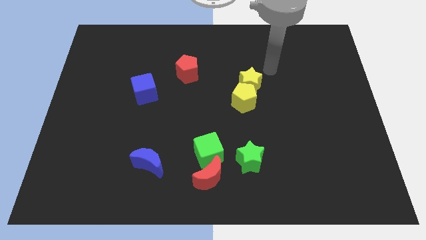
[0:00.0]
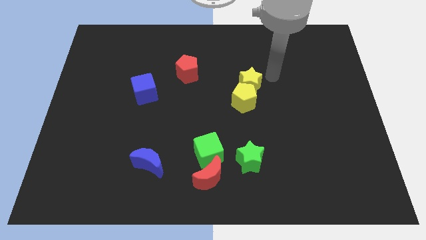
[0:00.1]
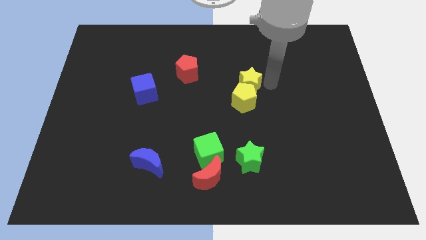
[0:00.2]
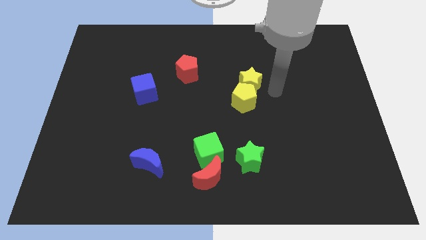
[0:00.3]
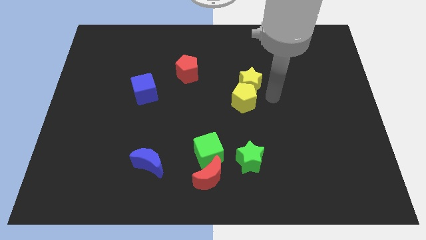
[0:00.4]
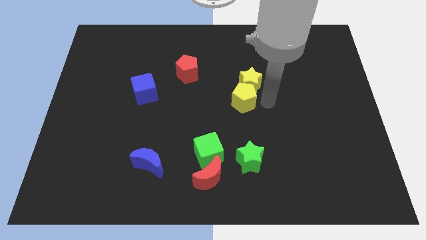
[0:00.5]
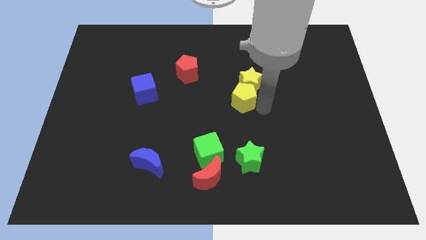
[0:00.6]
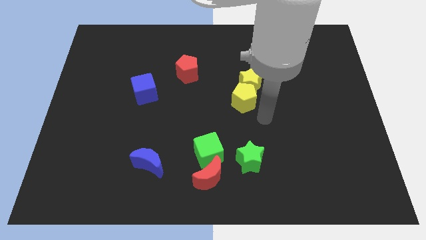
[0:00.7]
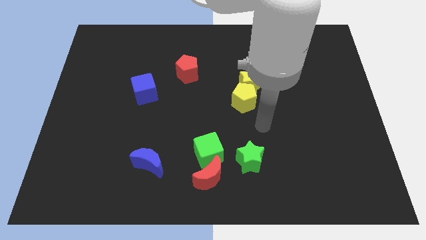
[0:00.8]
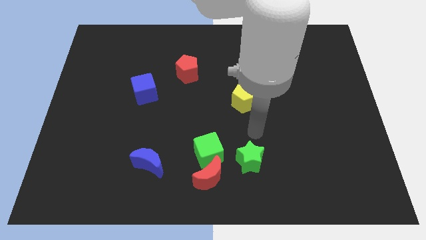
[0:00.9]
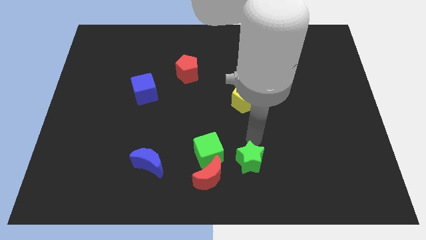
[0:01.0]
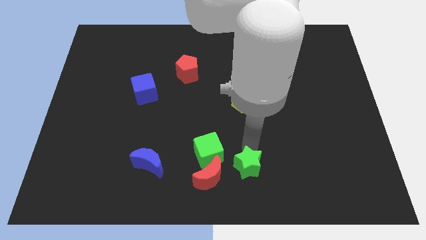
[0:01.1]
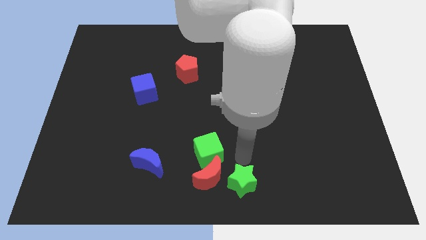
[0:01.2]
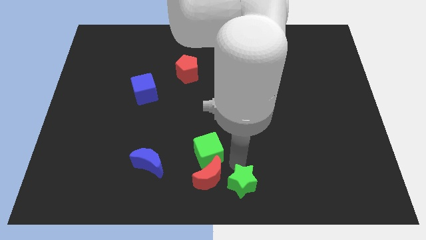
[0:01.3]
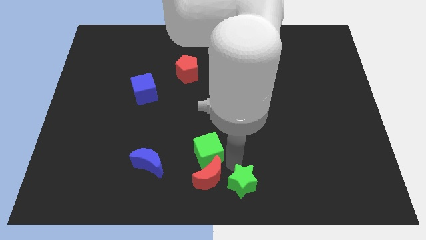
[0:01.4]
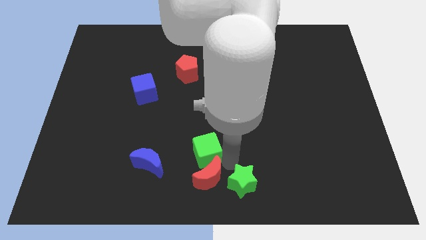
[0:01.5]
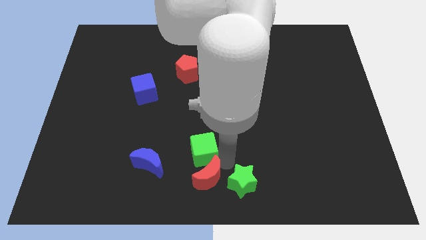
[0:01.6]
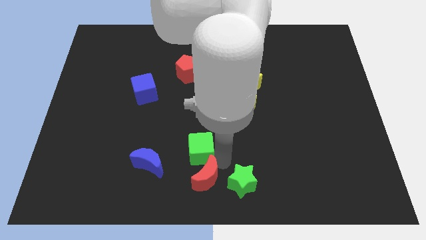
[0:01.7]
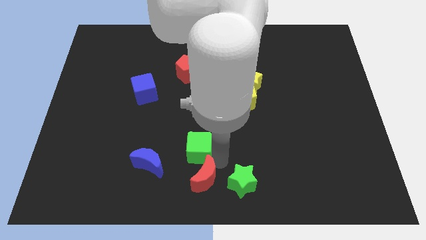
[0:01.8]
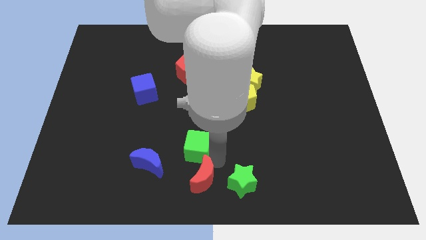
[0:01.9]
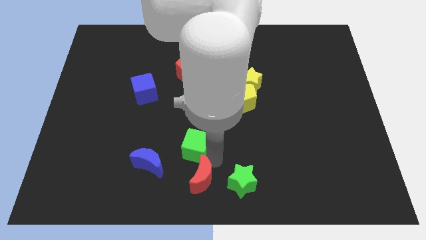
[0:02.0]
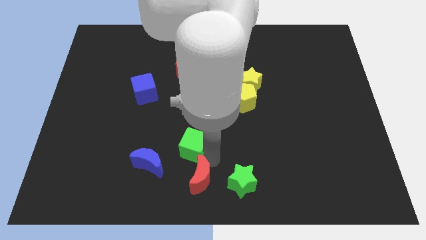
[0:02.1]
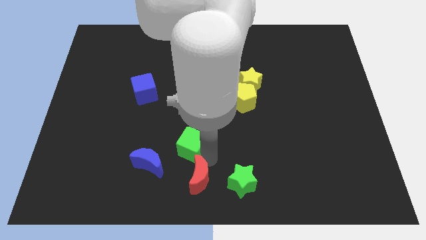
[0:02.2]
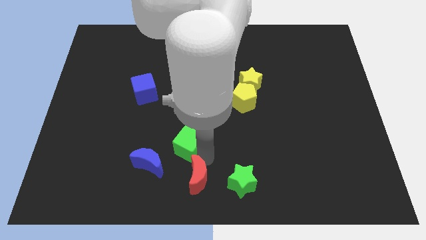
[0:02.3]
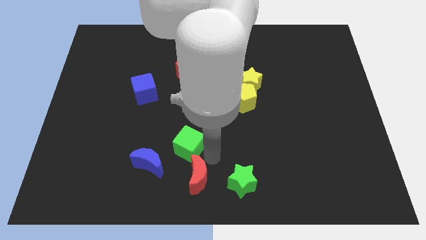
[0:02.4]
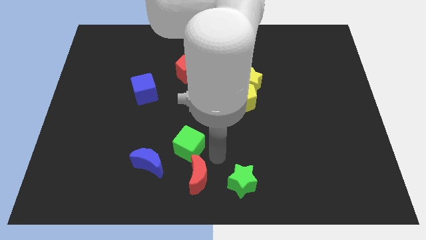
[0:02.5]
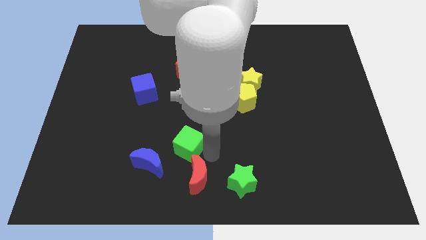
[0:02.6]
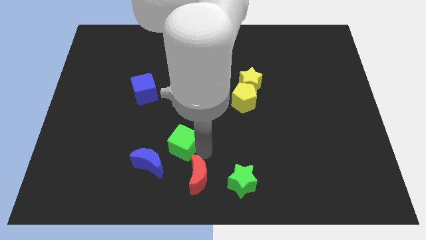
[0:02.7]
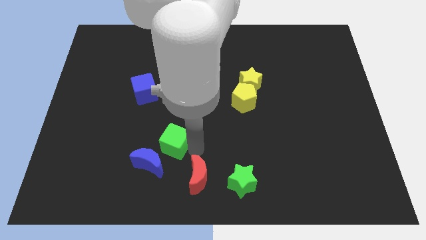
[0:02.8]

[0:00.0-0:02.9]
slightly push the green cube to the left

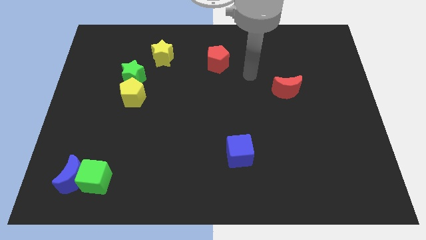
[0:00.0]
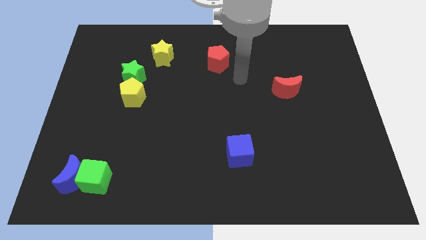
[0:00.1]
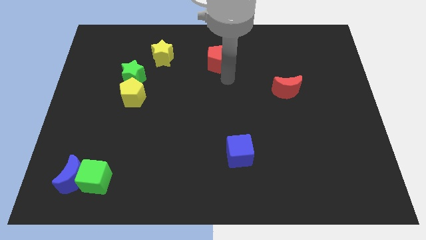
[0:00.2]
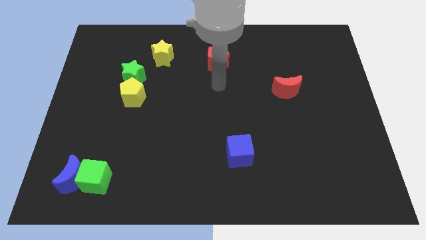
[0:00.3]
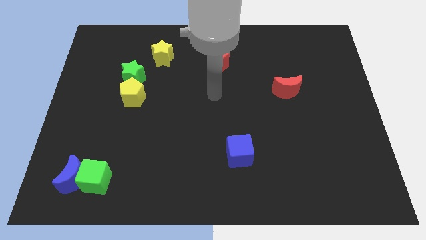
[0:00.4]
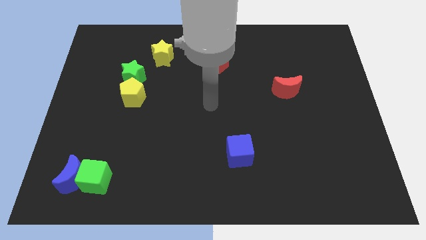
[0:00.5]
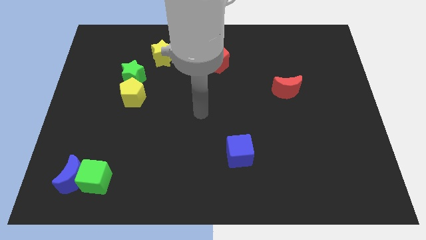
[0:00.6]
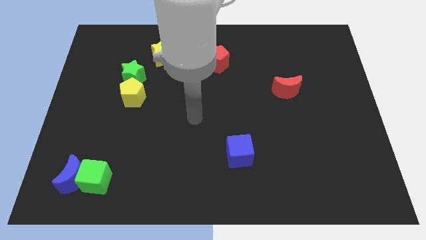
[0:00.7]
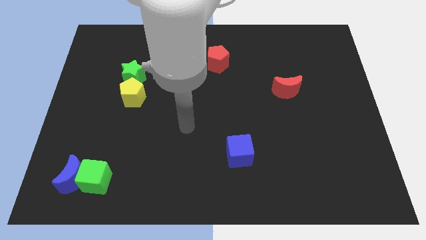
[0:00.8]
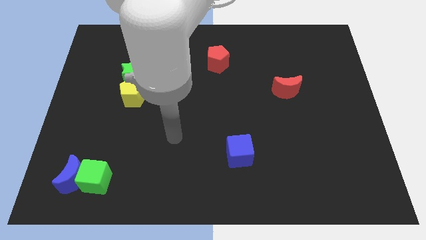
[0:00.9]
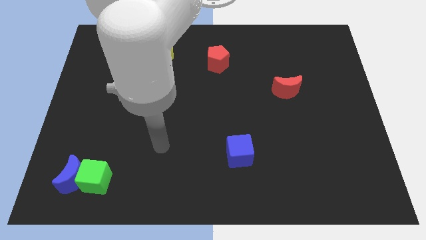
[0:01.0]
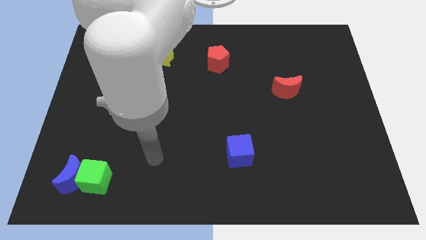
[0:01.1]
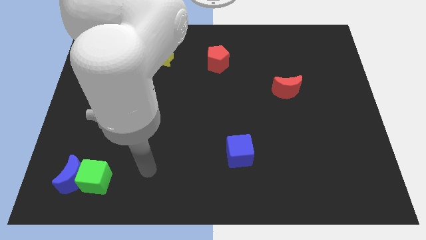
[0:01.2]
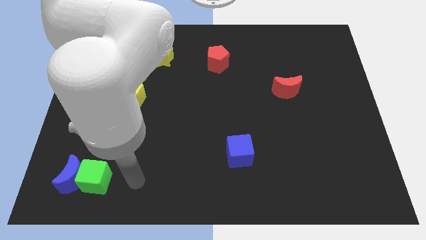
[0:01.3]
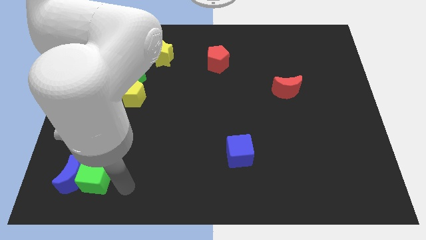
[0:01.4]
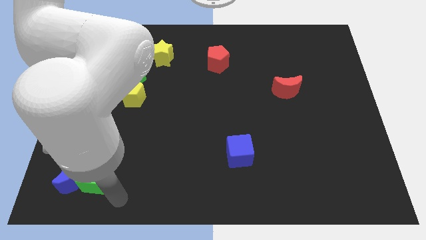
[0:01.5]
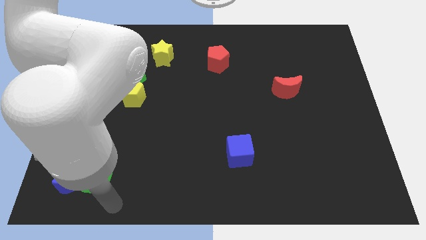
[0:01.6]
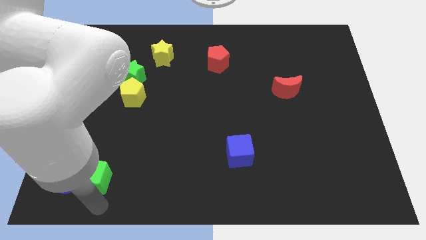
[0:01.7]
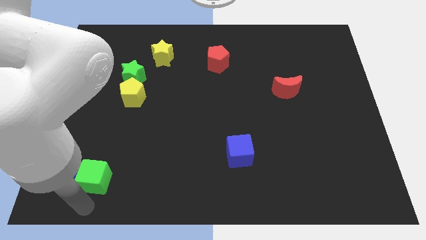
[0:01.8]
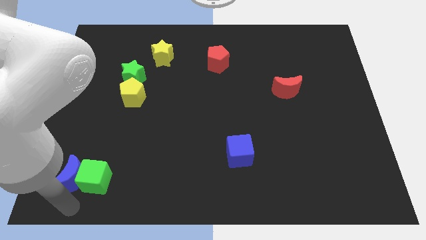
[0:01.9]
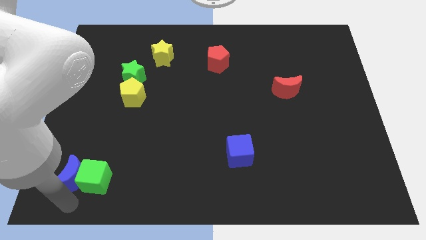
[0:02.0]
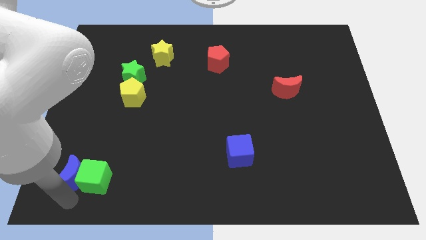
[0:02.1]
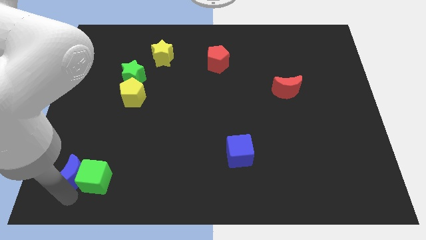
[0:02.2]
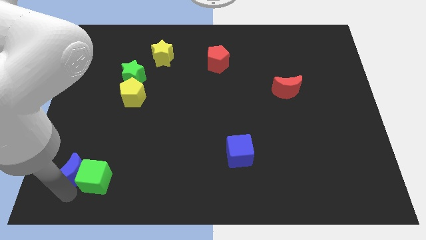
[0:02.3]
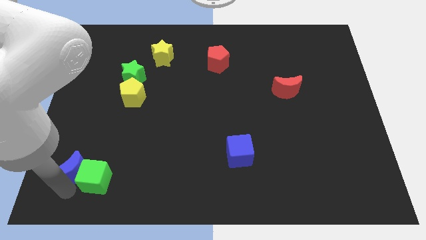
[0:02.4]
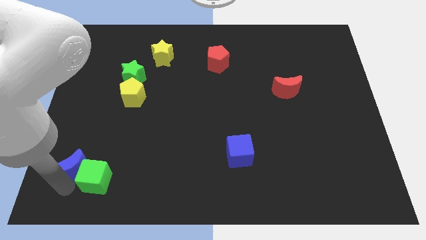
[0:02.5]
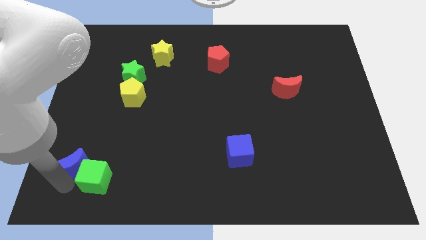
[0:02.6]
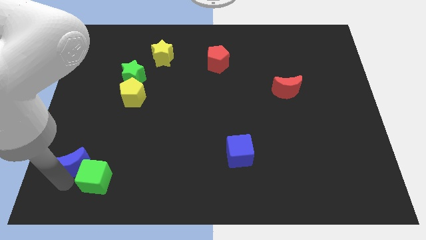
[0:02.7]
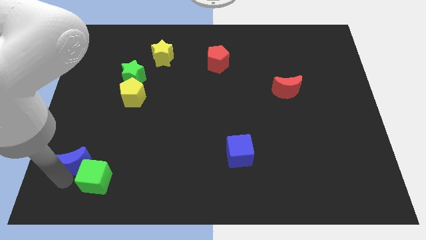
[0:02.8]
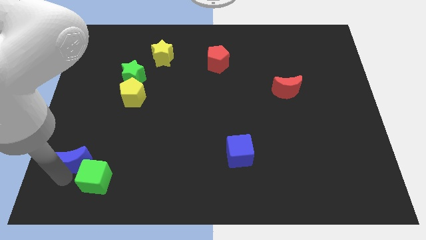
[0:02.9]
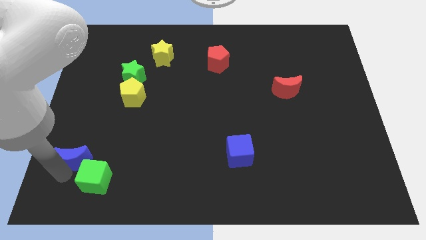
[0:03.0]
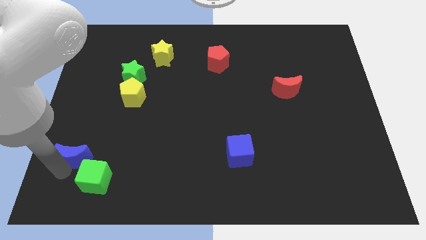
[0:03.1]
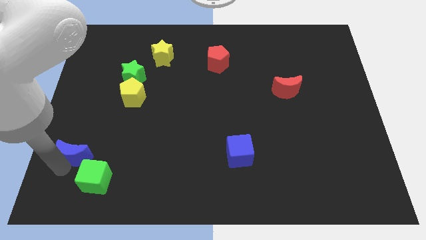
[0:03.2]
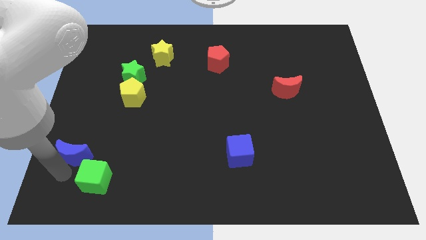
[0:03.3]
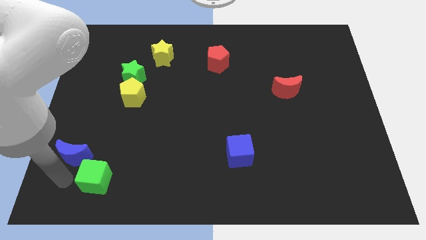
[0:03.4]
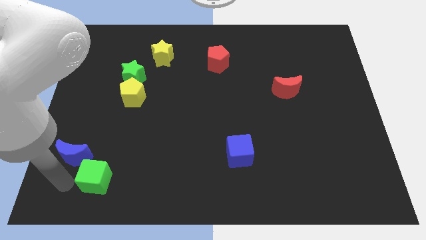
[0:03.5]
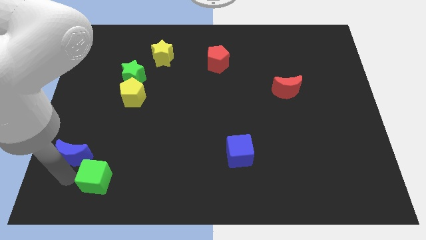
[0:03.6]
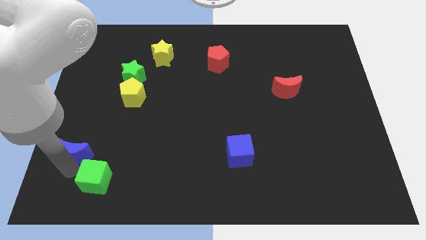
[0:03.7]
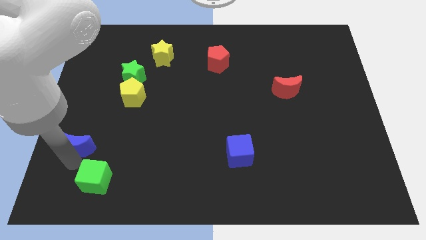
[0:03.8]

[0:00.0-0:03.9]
push the blue moon up a bit

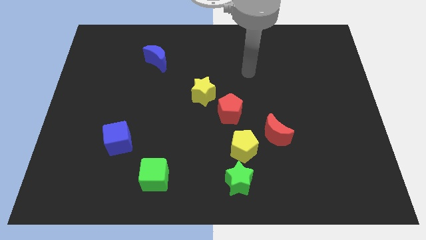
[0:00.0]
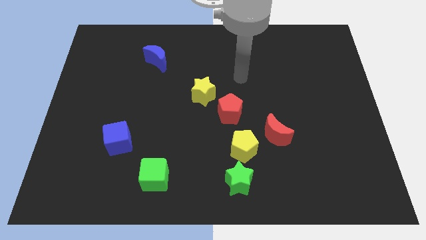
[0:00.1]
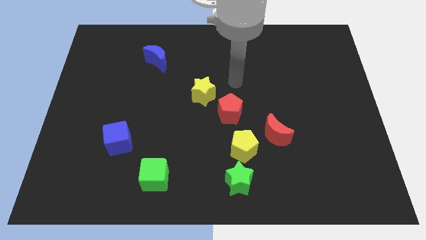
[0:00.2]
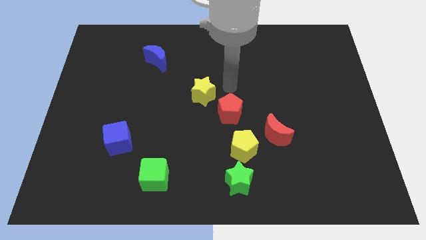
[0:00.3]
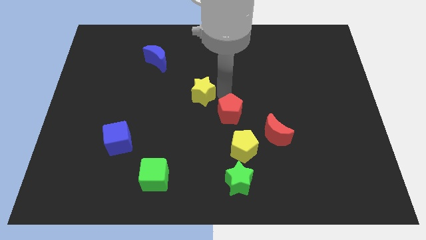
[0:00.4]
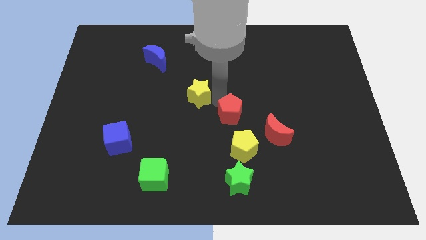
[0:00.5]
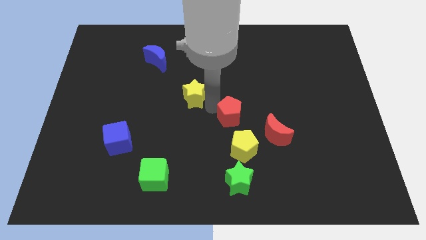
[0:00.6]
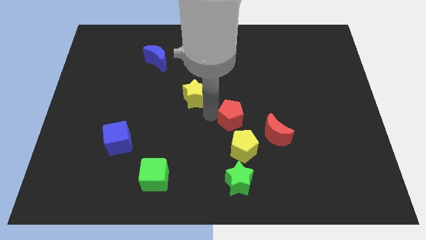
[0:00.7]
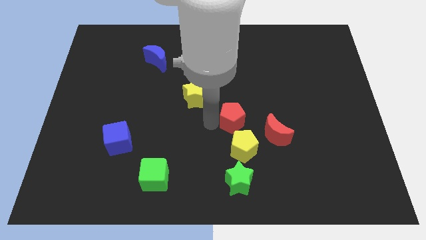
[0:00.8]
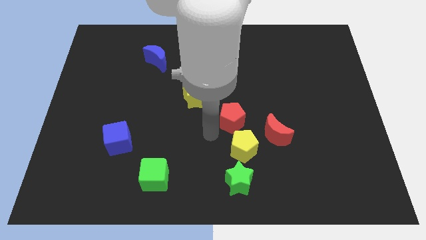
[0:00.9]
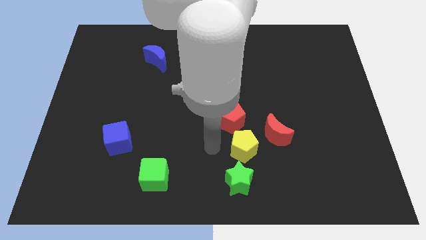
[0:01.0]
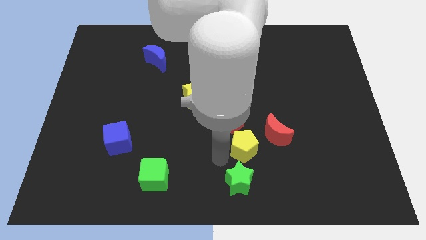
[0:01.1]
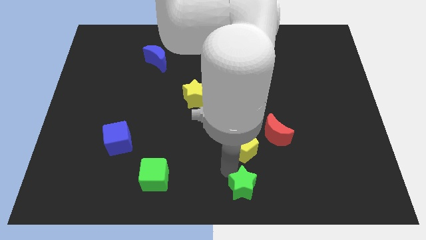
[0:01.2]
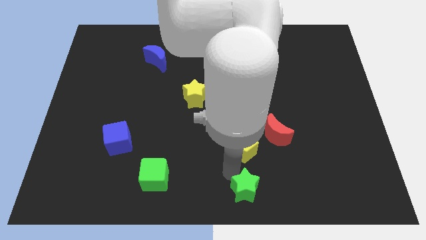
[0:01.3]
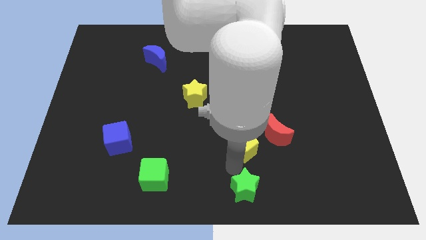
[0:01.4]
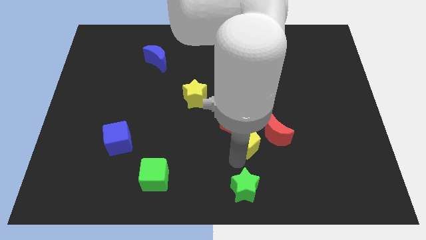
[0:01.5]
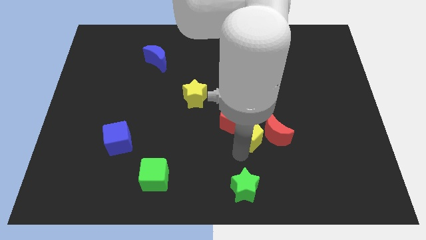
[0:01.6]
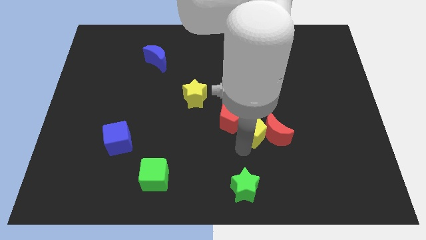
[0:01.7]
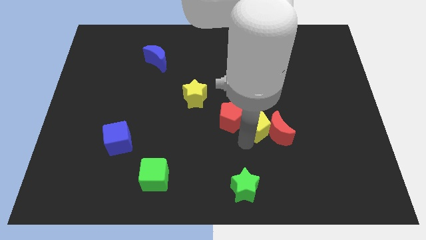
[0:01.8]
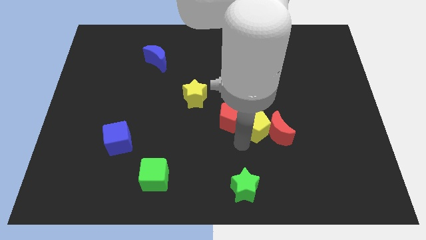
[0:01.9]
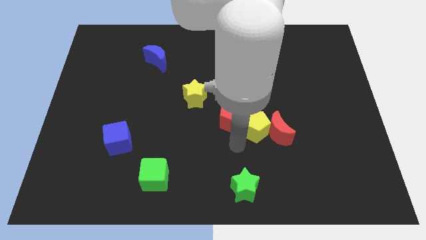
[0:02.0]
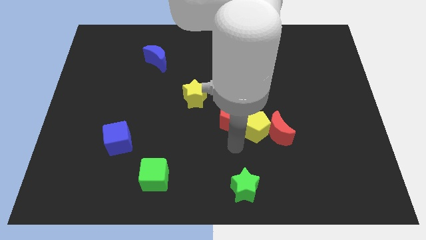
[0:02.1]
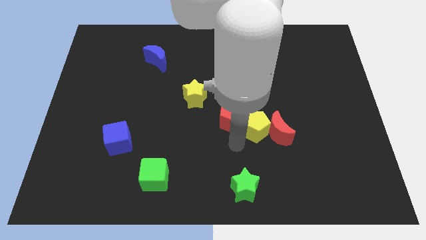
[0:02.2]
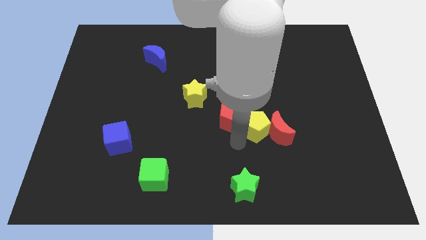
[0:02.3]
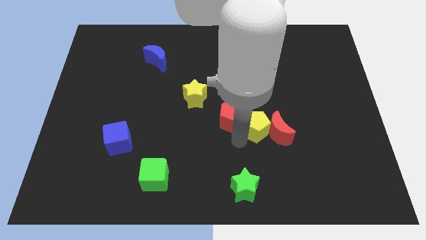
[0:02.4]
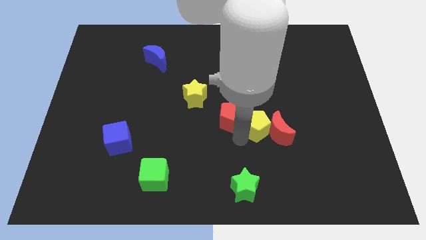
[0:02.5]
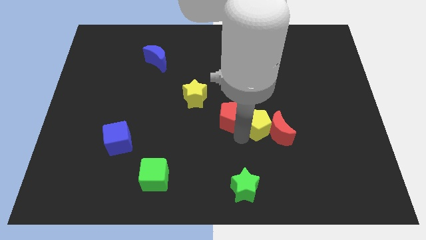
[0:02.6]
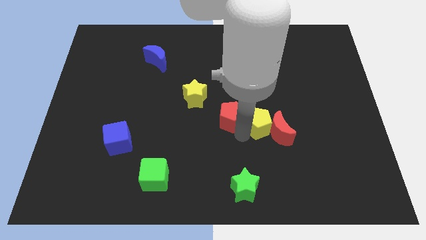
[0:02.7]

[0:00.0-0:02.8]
move the yellow pentagon a bit up and to the right
